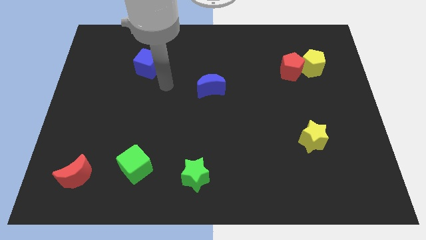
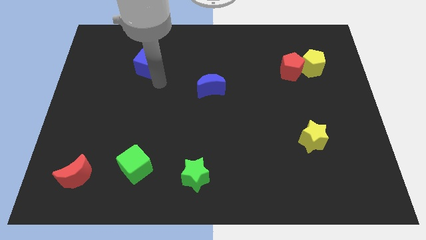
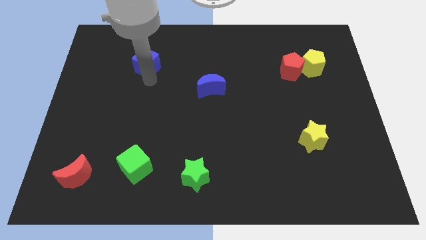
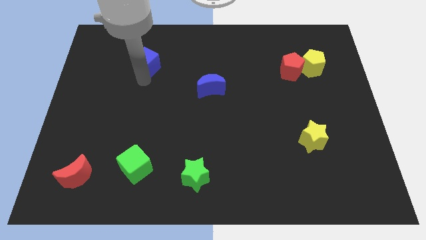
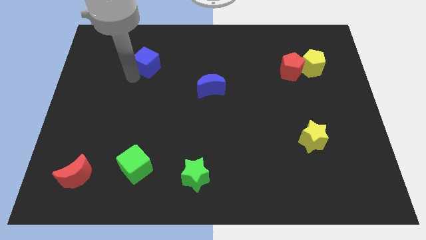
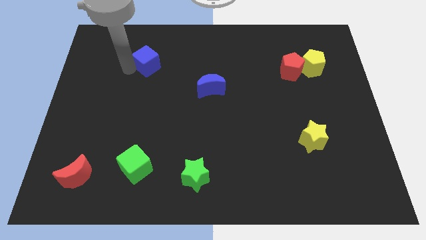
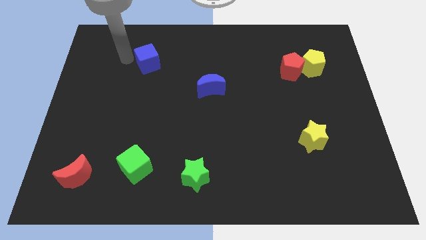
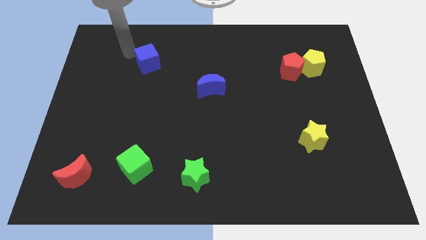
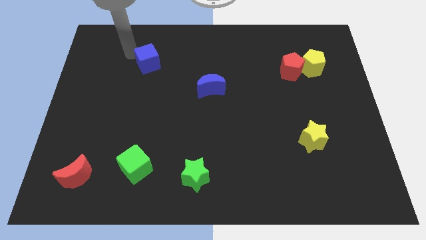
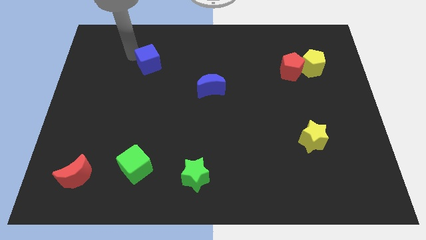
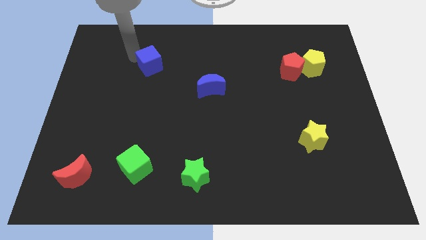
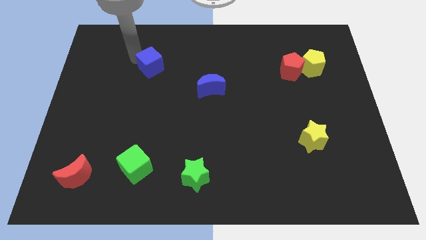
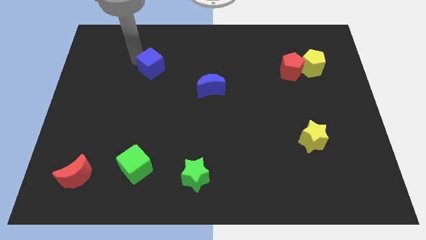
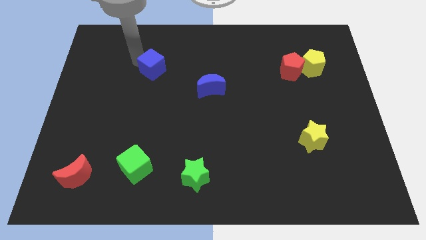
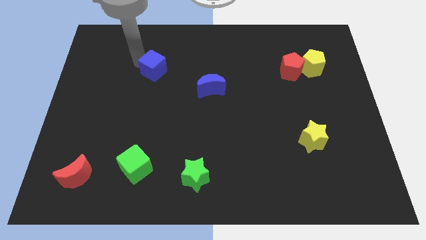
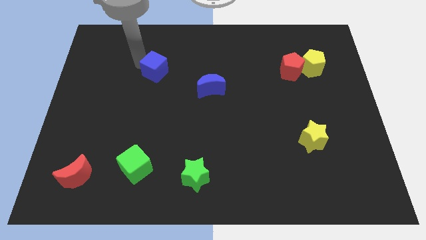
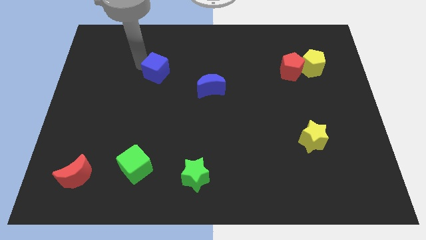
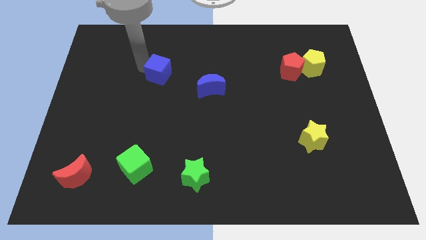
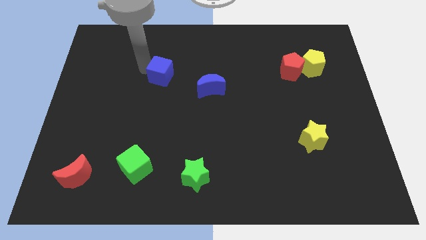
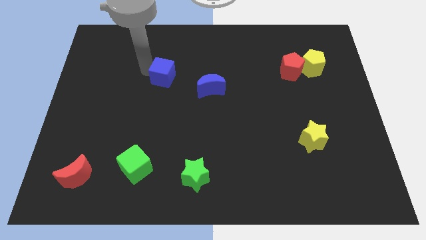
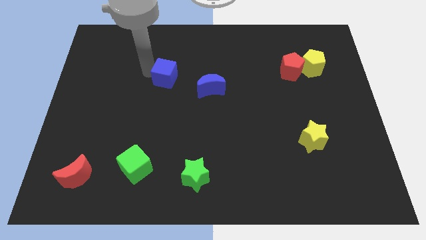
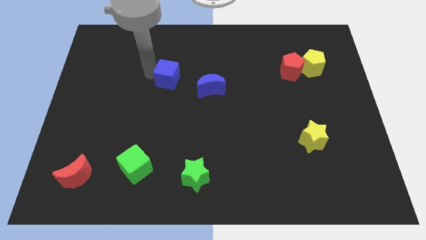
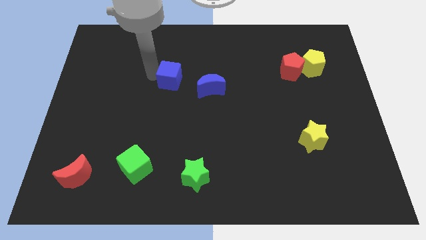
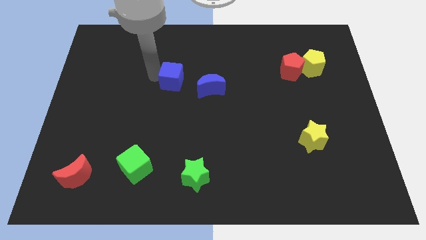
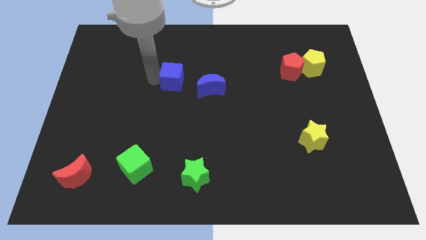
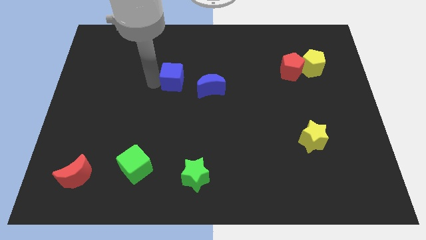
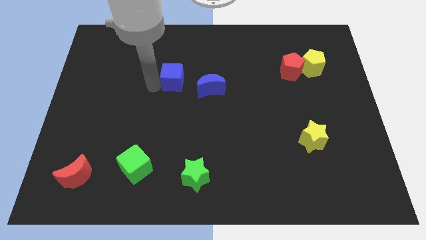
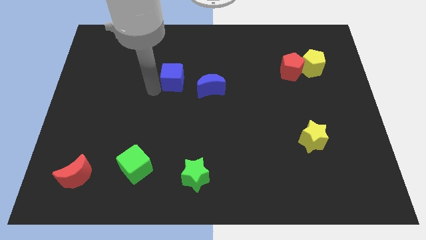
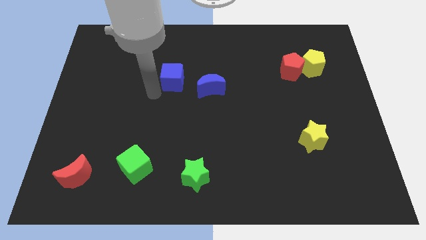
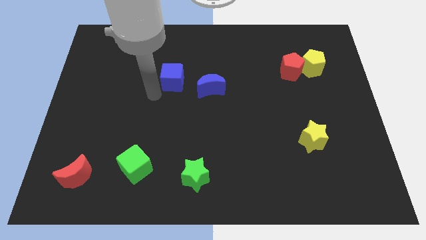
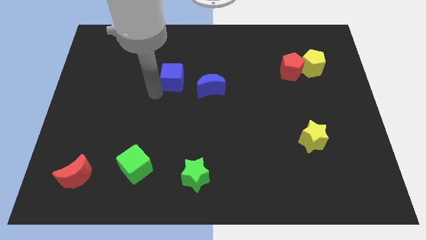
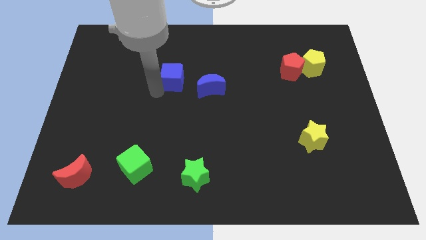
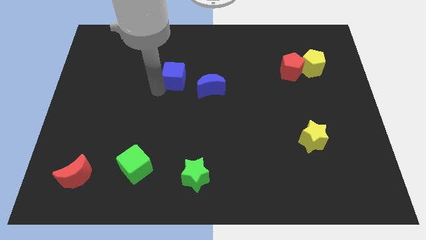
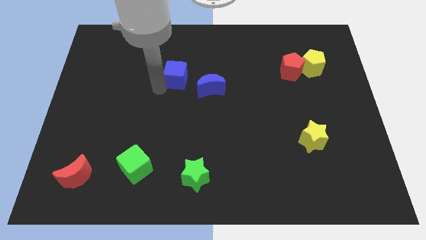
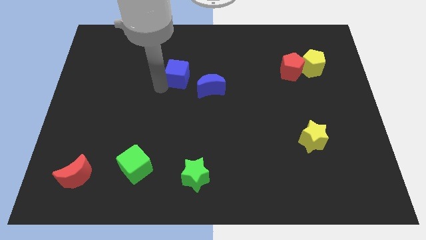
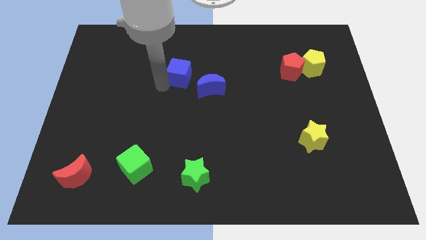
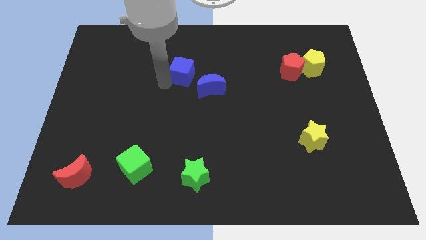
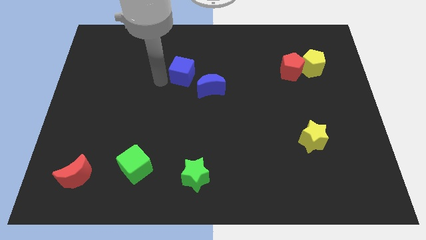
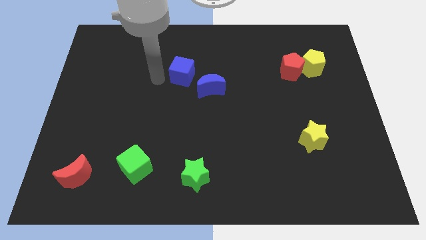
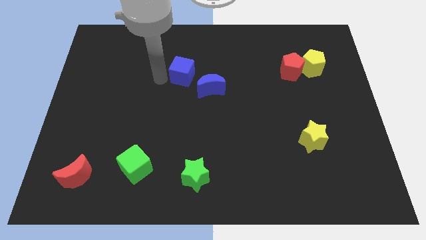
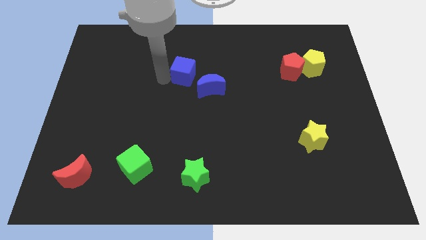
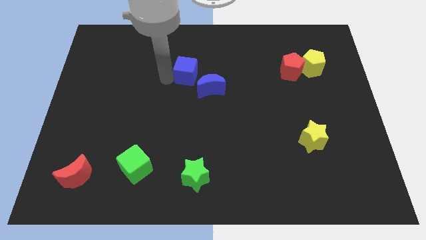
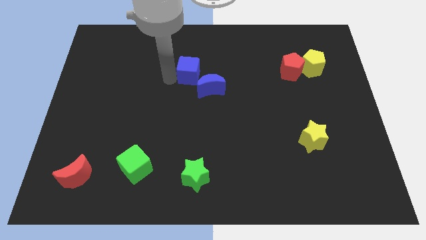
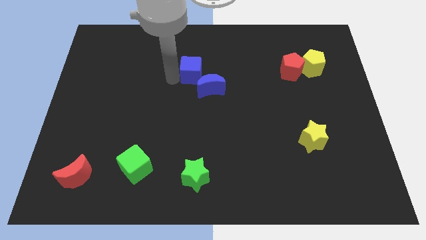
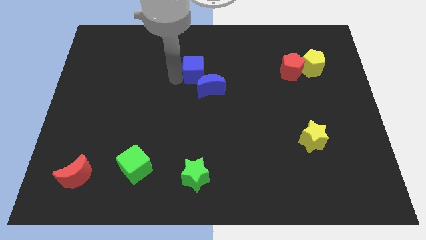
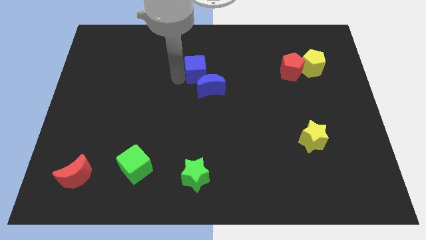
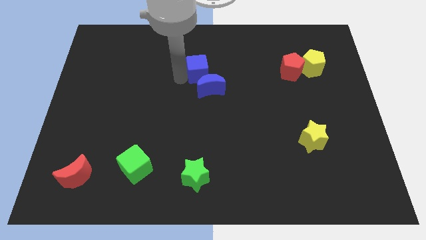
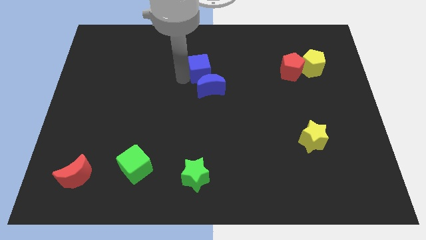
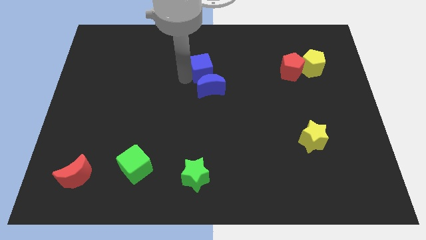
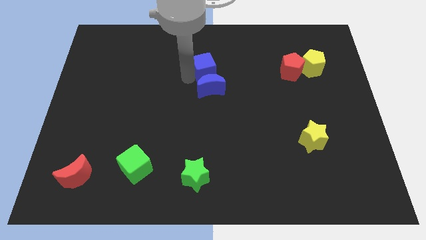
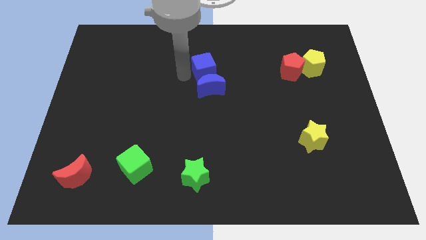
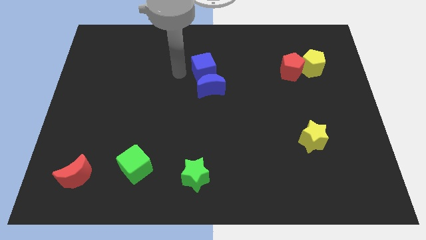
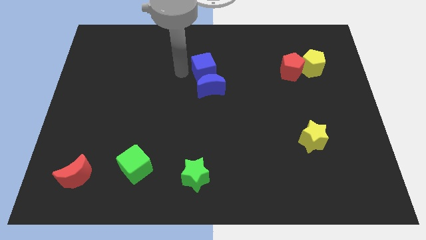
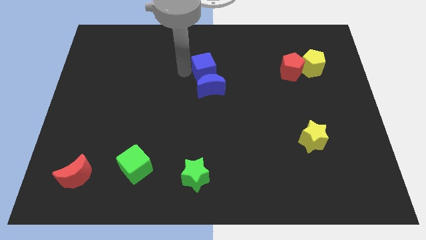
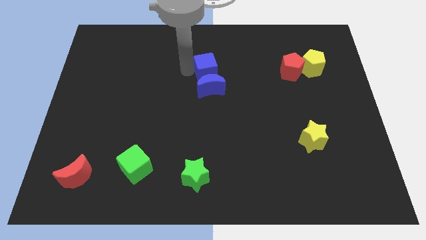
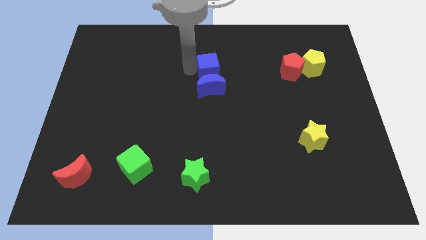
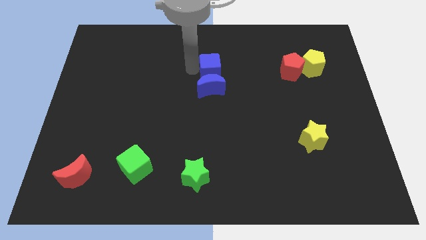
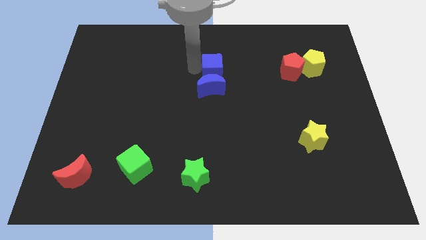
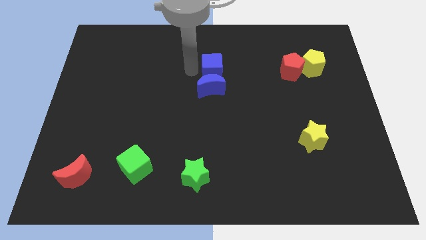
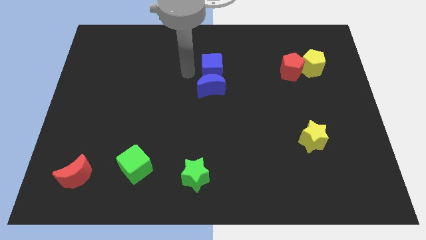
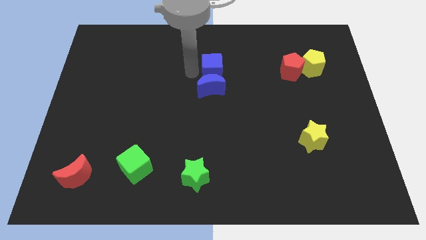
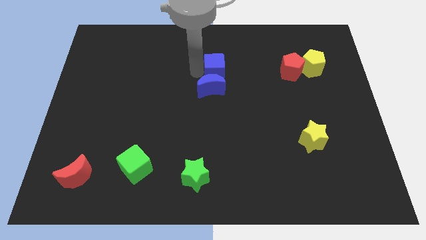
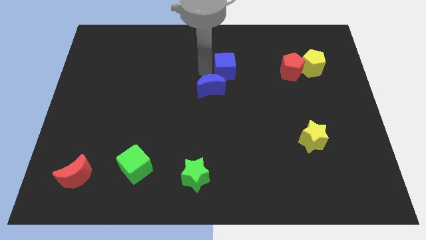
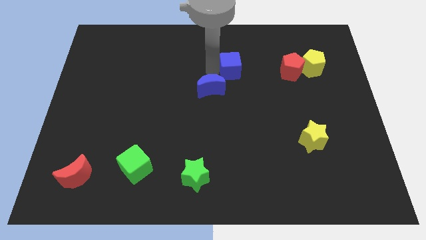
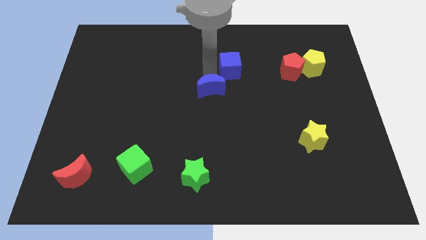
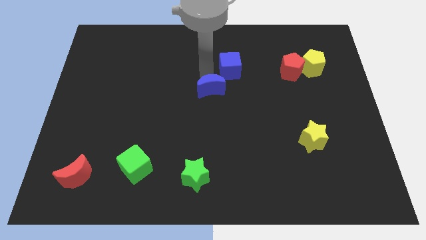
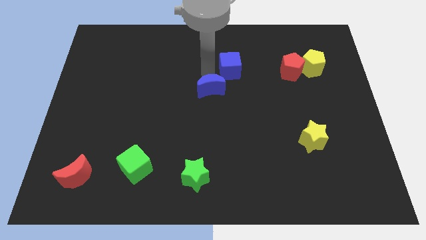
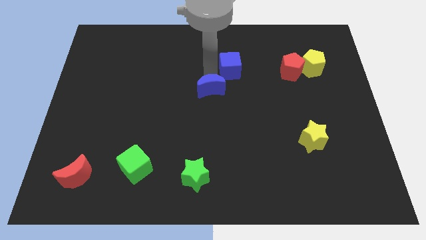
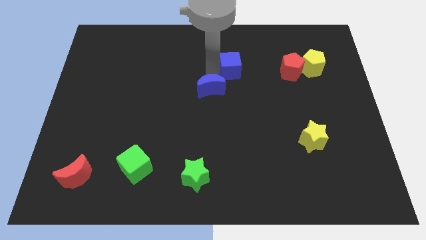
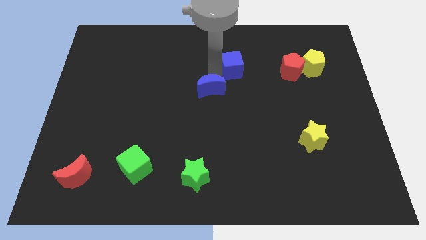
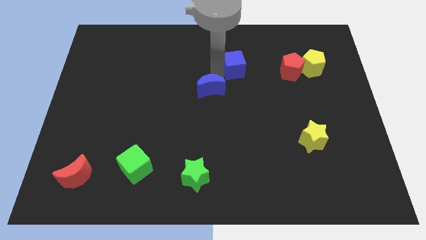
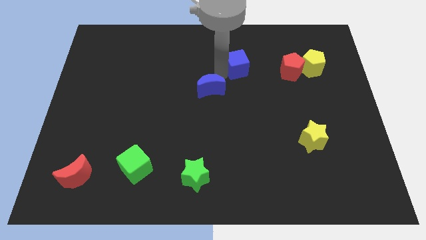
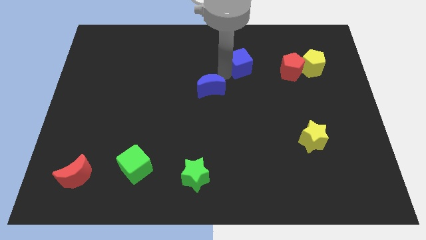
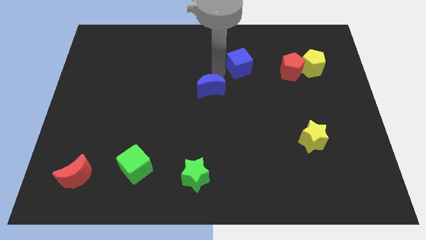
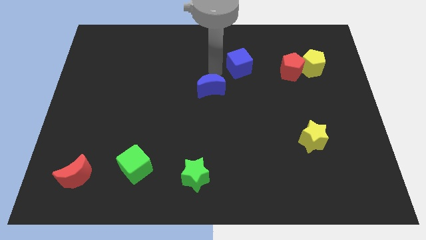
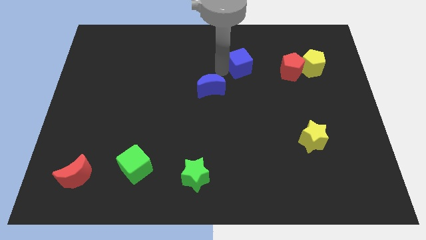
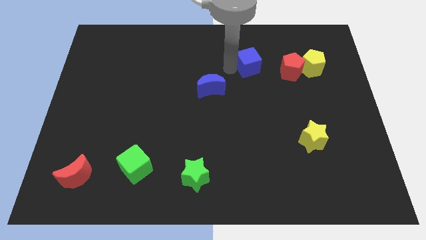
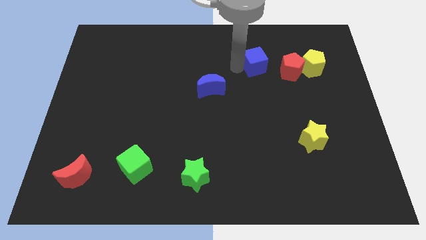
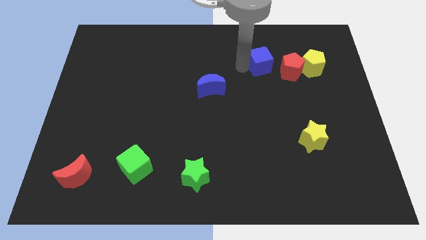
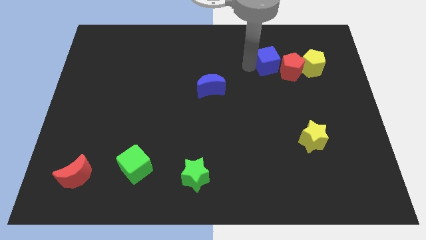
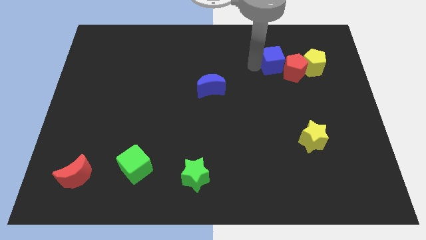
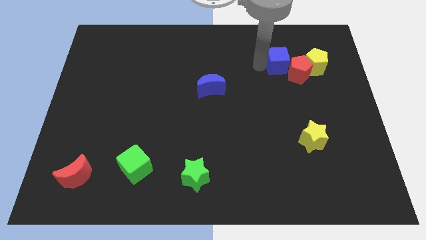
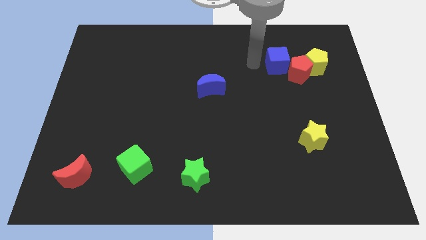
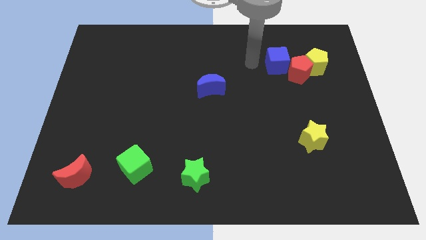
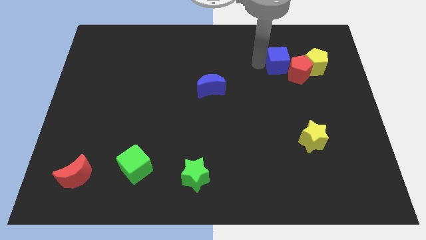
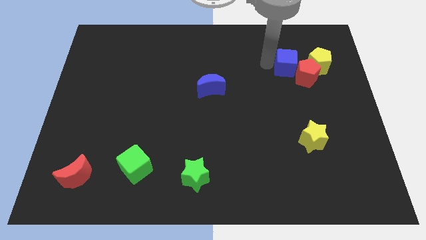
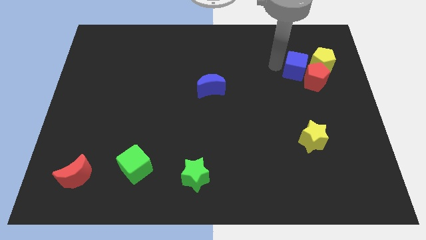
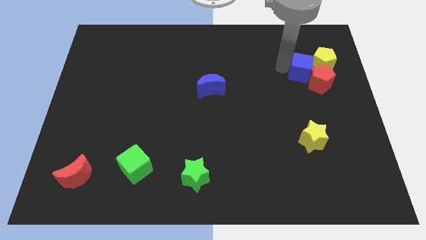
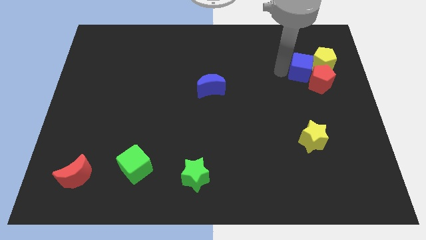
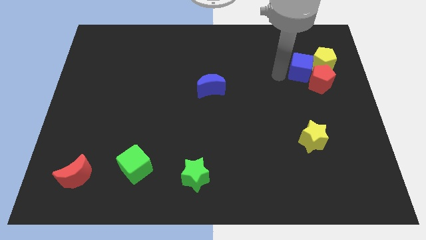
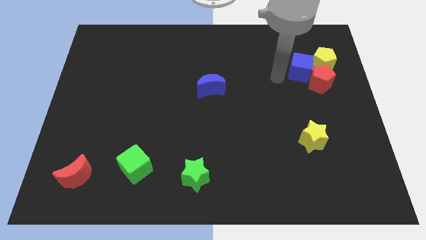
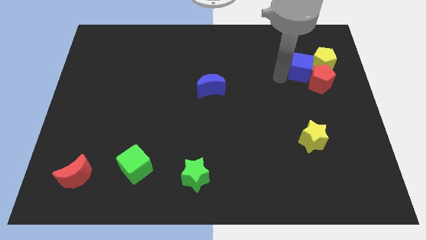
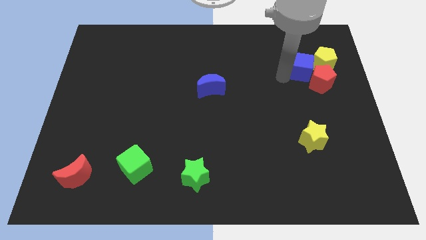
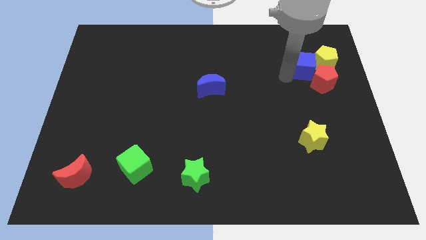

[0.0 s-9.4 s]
push the blue cube close to the yellow pentagon
